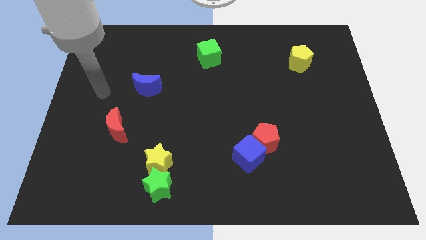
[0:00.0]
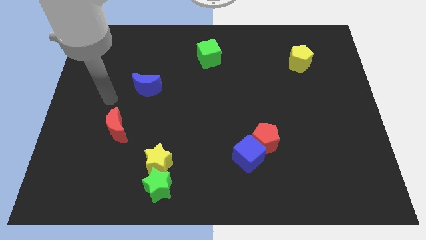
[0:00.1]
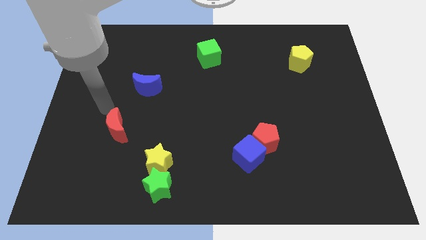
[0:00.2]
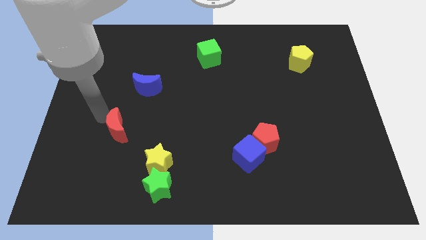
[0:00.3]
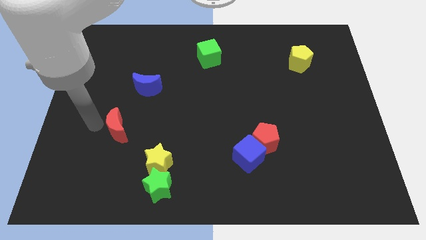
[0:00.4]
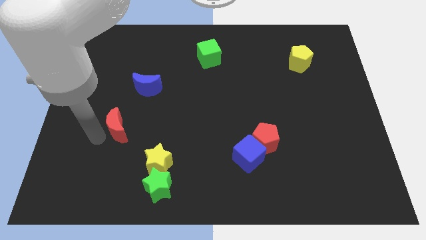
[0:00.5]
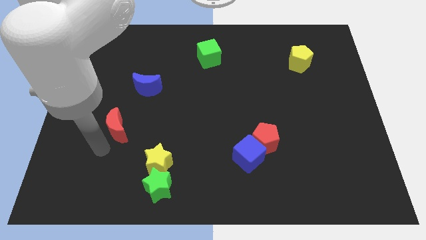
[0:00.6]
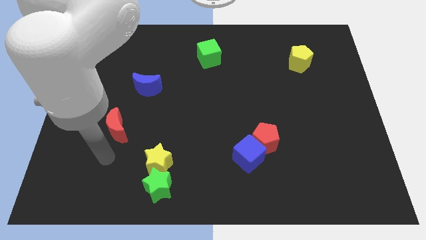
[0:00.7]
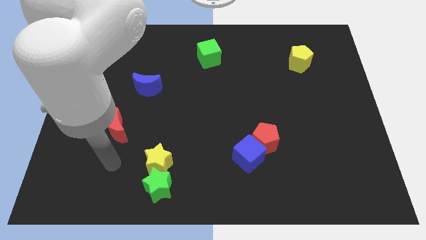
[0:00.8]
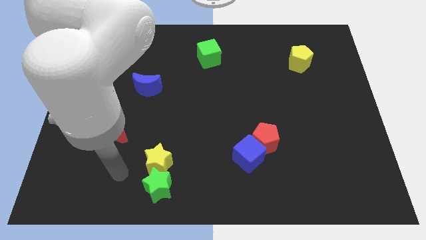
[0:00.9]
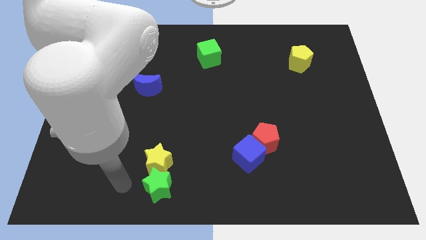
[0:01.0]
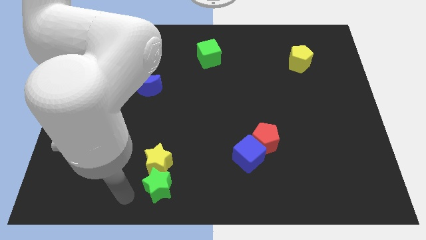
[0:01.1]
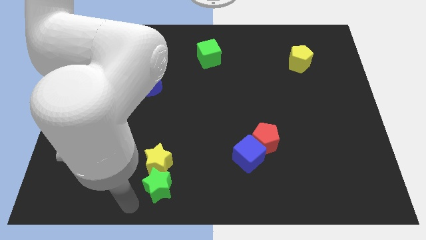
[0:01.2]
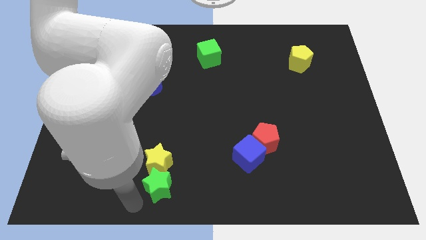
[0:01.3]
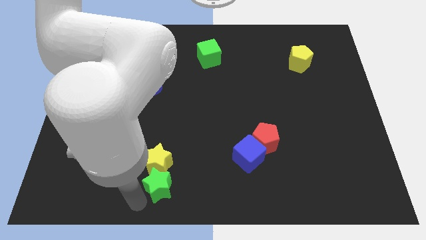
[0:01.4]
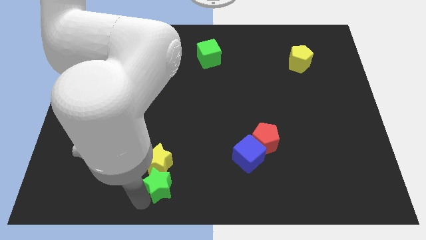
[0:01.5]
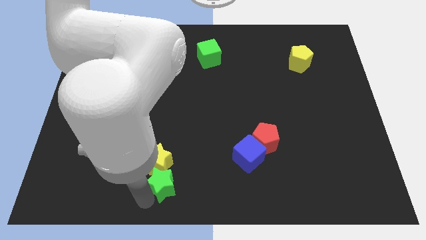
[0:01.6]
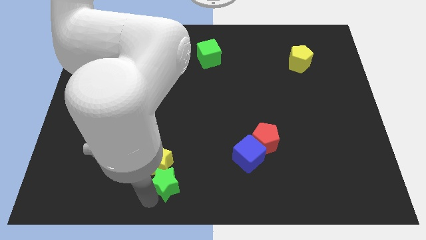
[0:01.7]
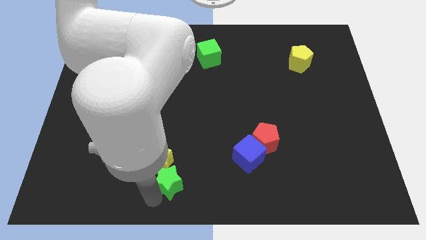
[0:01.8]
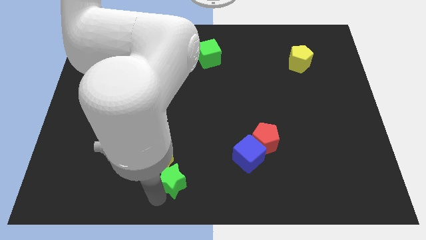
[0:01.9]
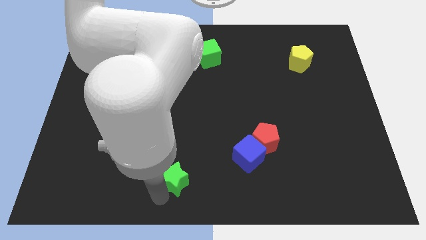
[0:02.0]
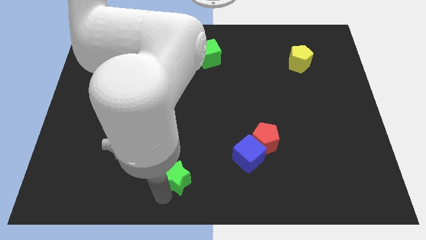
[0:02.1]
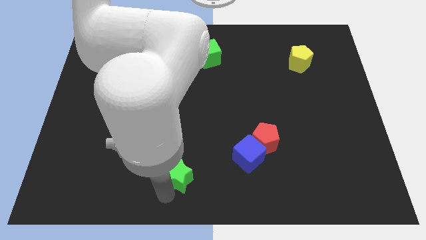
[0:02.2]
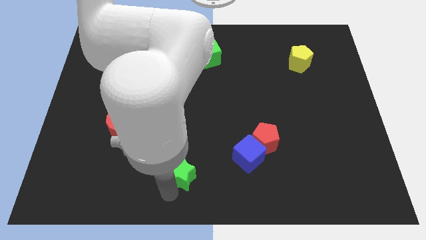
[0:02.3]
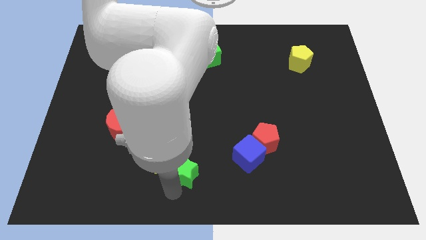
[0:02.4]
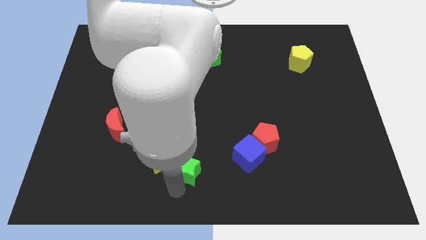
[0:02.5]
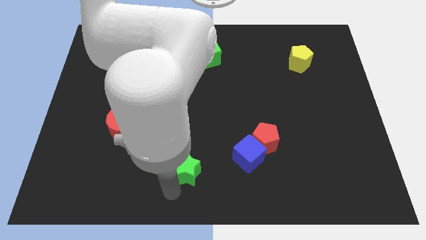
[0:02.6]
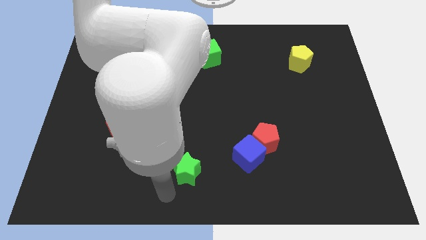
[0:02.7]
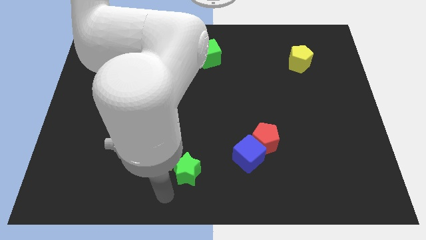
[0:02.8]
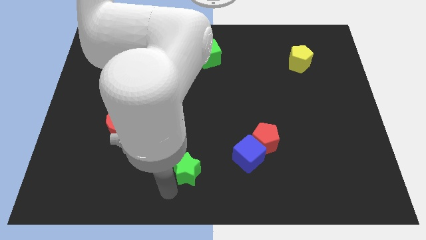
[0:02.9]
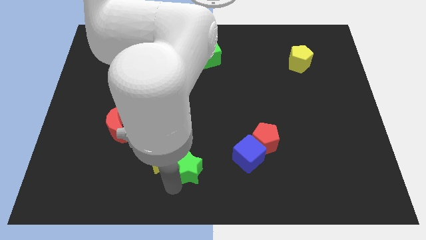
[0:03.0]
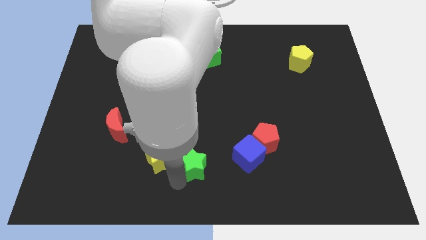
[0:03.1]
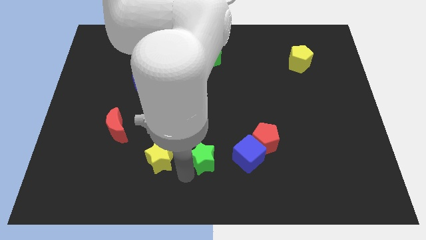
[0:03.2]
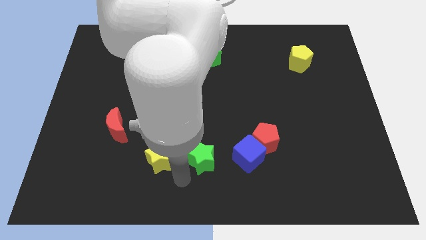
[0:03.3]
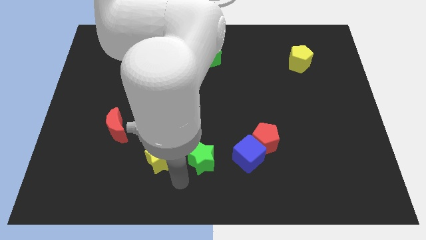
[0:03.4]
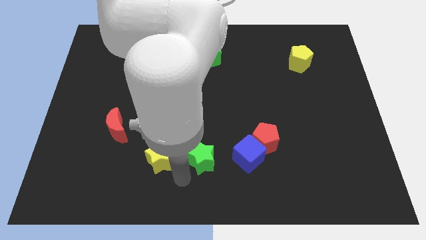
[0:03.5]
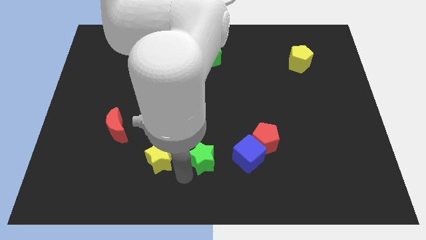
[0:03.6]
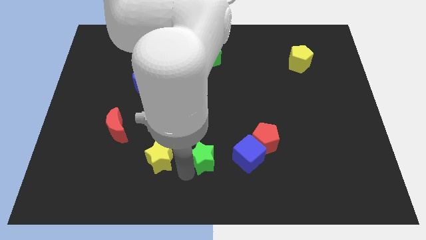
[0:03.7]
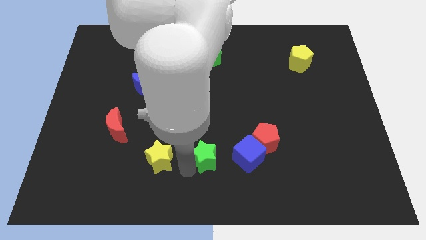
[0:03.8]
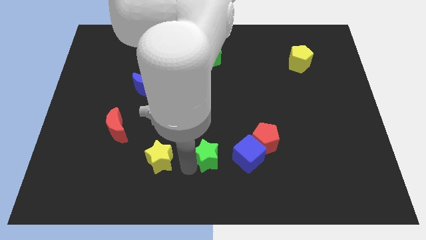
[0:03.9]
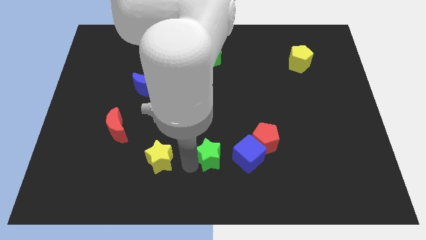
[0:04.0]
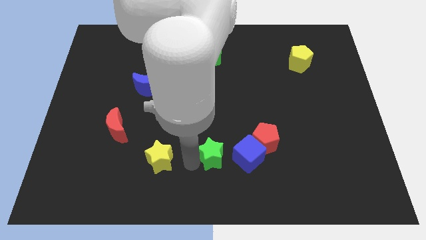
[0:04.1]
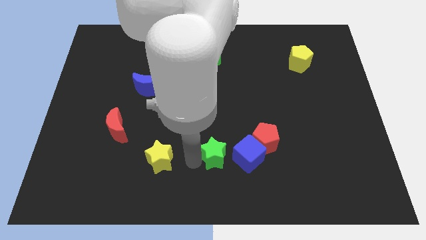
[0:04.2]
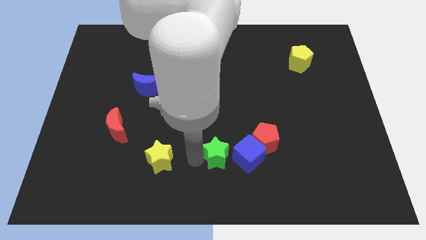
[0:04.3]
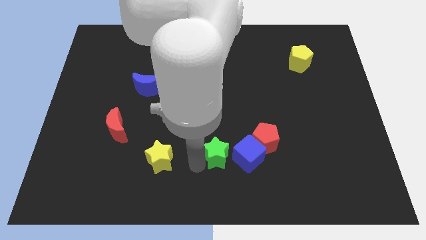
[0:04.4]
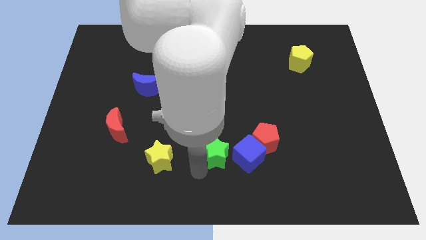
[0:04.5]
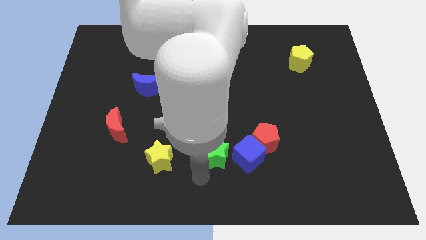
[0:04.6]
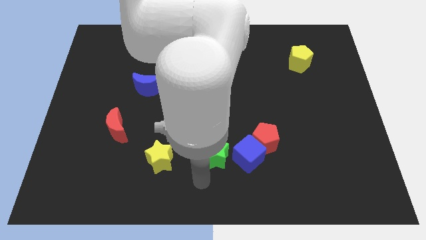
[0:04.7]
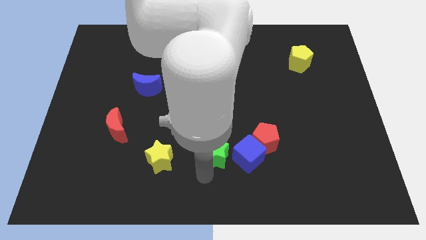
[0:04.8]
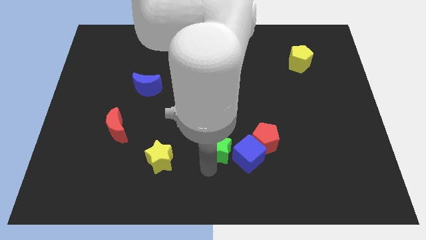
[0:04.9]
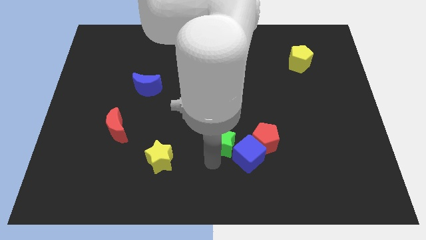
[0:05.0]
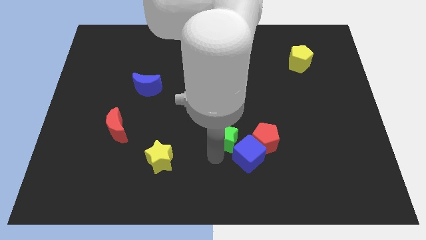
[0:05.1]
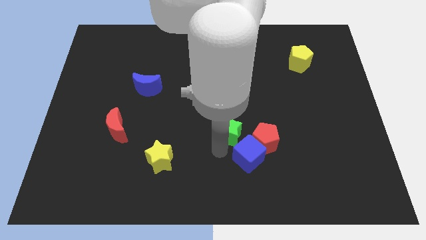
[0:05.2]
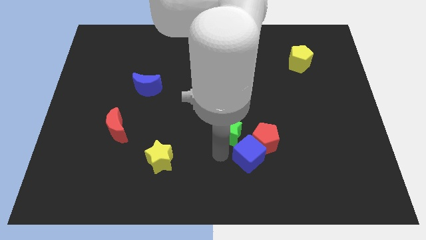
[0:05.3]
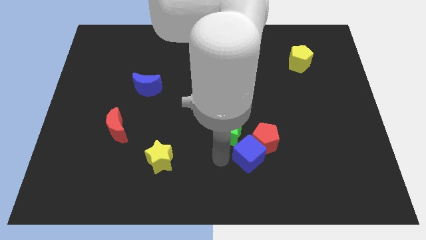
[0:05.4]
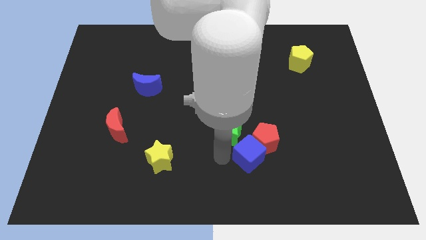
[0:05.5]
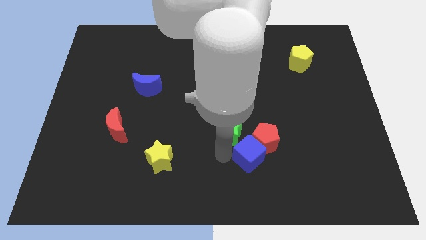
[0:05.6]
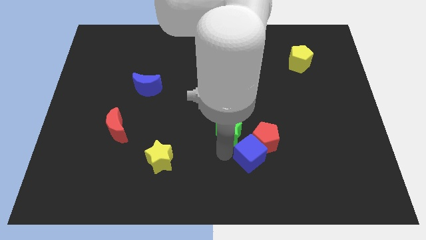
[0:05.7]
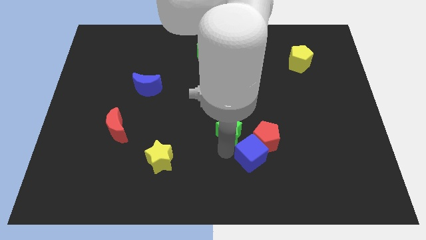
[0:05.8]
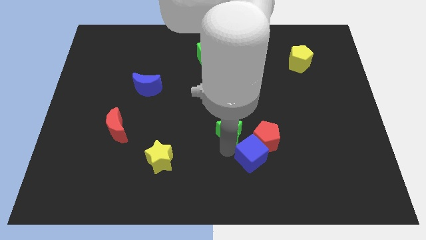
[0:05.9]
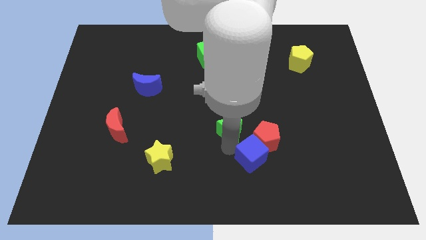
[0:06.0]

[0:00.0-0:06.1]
slide the green star up and right

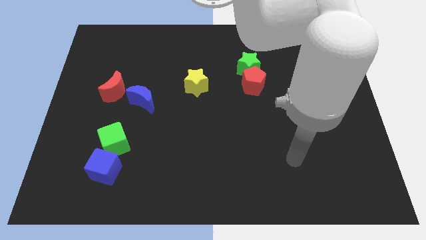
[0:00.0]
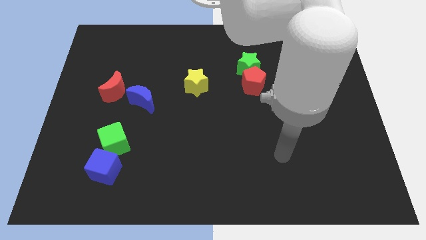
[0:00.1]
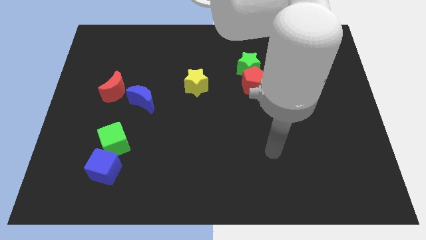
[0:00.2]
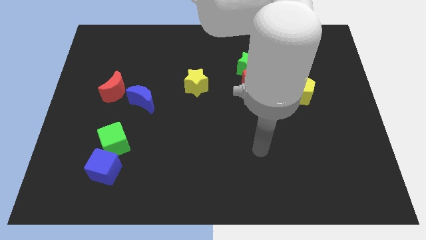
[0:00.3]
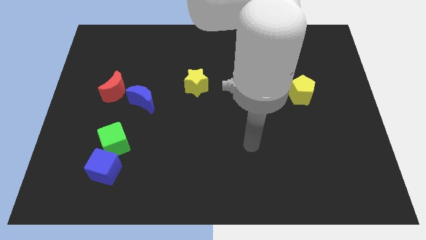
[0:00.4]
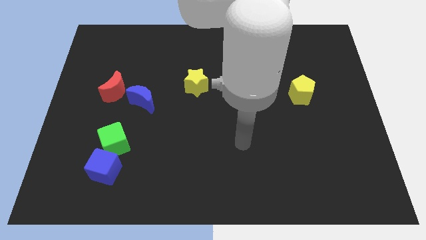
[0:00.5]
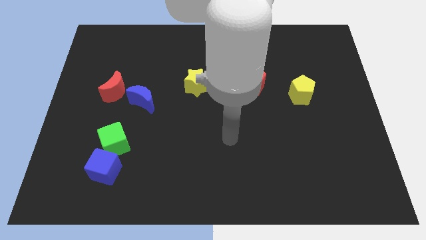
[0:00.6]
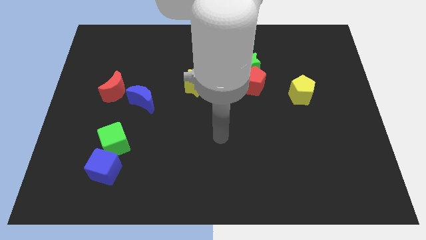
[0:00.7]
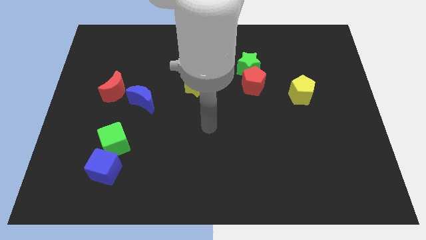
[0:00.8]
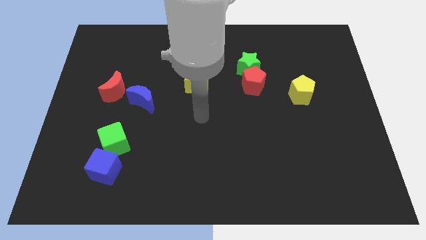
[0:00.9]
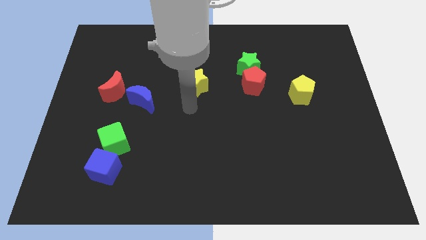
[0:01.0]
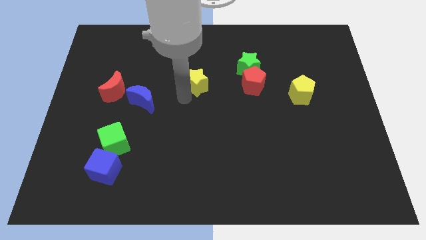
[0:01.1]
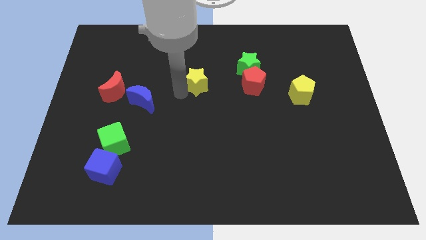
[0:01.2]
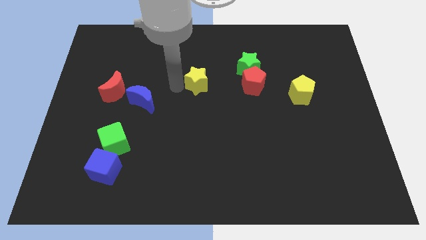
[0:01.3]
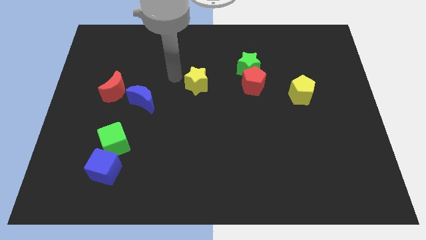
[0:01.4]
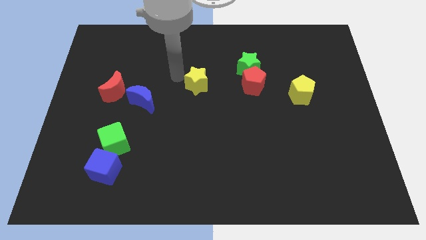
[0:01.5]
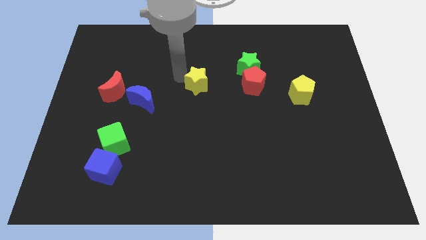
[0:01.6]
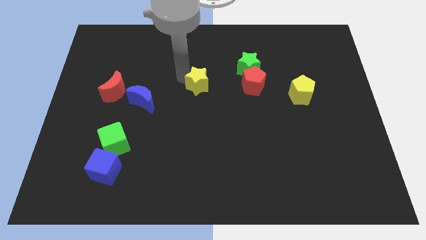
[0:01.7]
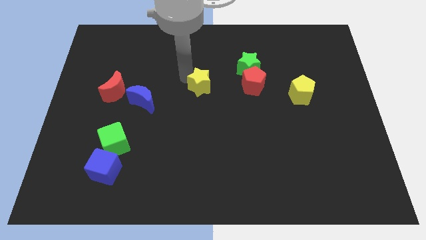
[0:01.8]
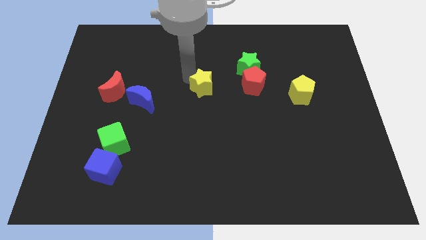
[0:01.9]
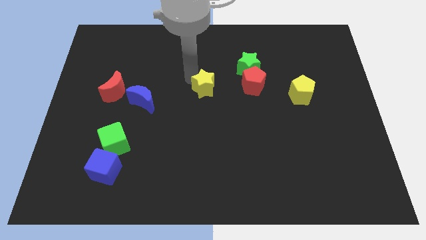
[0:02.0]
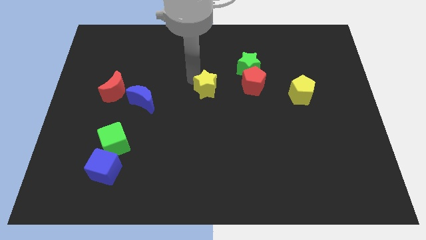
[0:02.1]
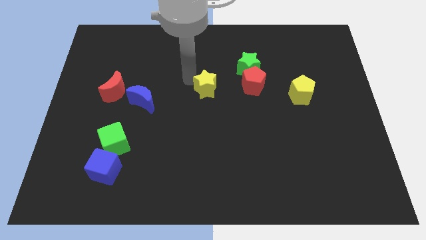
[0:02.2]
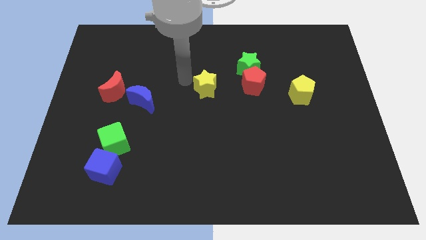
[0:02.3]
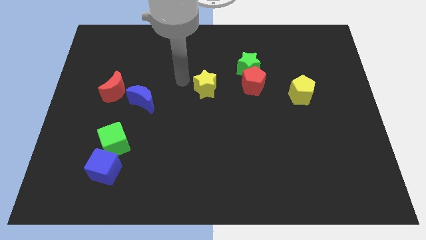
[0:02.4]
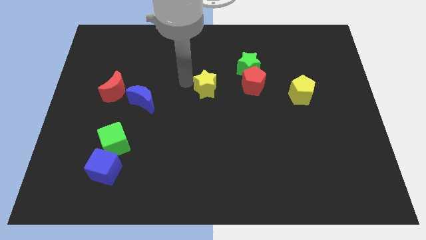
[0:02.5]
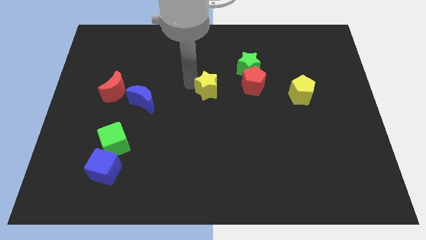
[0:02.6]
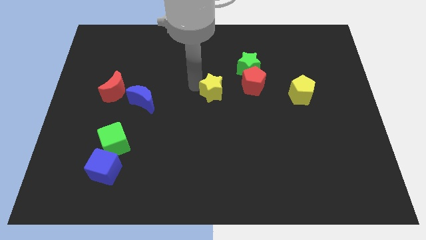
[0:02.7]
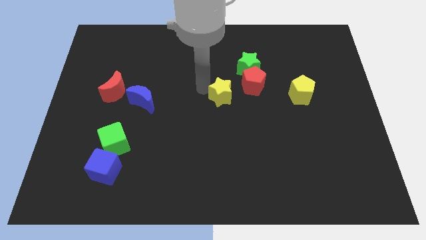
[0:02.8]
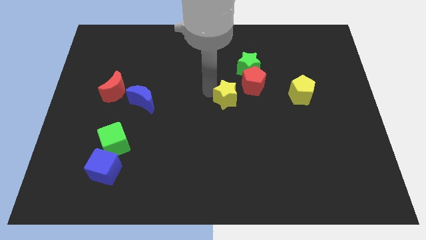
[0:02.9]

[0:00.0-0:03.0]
push the yellow star right somewhat
